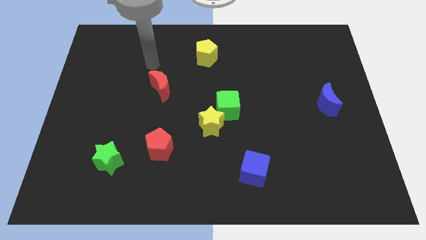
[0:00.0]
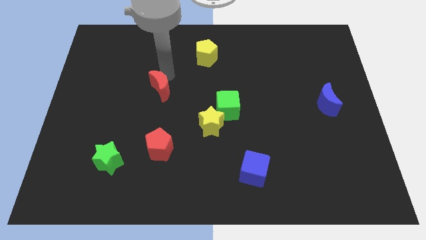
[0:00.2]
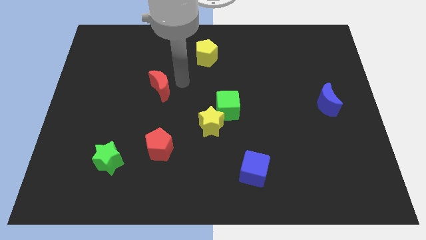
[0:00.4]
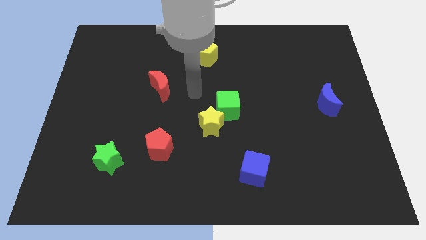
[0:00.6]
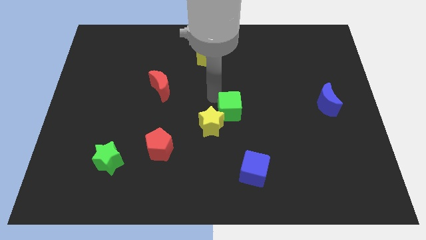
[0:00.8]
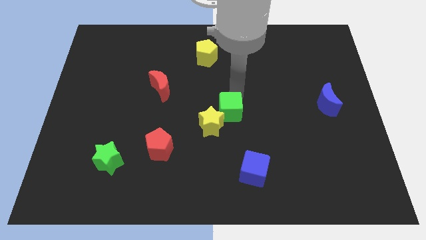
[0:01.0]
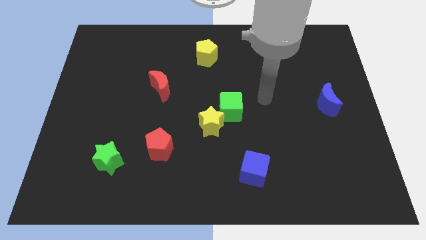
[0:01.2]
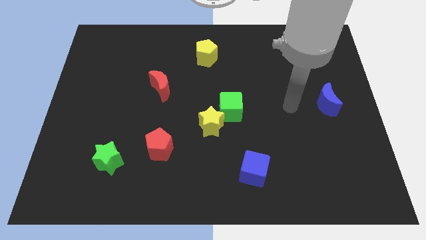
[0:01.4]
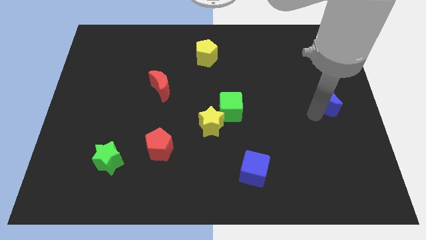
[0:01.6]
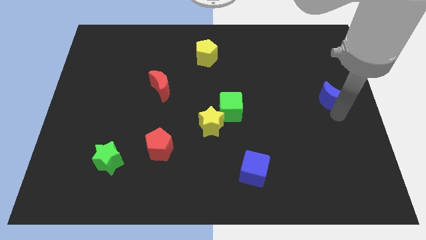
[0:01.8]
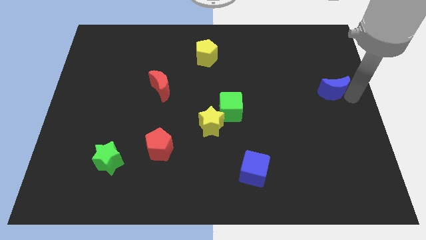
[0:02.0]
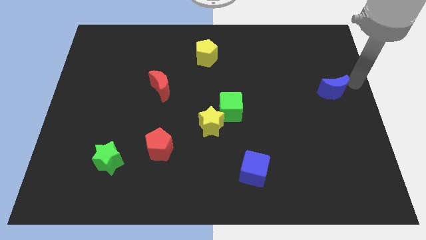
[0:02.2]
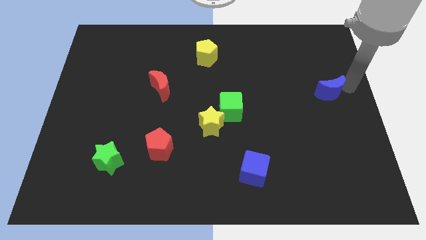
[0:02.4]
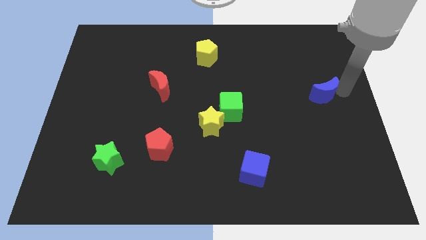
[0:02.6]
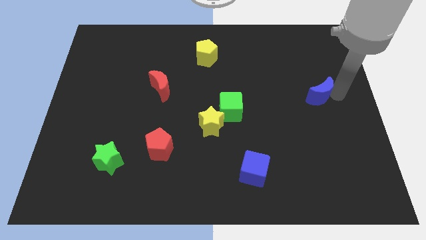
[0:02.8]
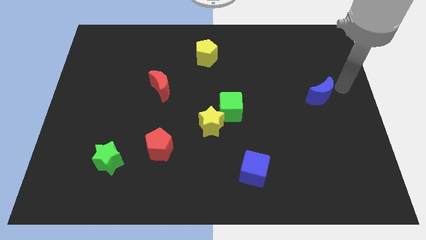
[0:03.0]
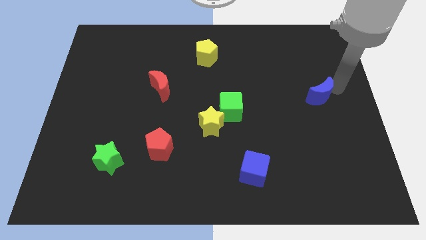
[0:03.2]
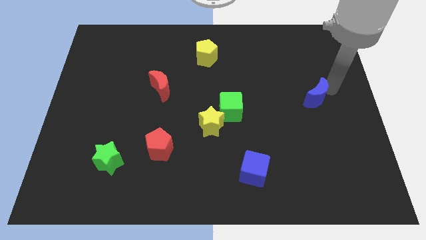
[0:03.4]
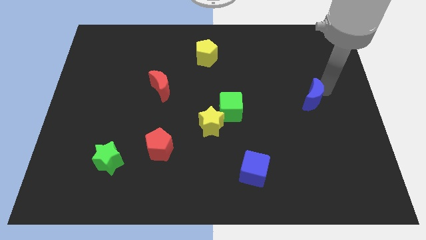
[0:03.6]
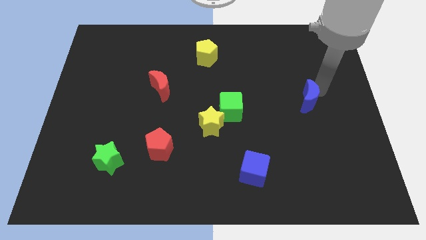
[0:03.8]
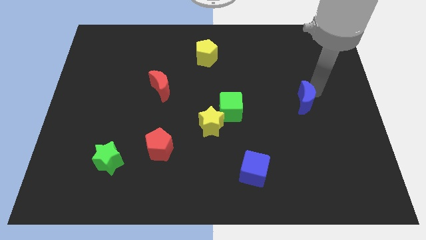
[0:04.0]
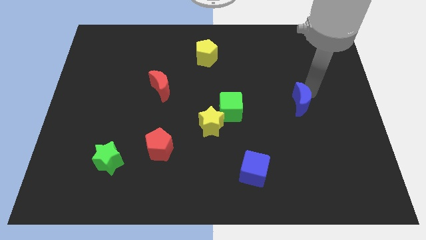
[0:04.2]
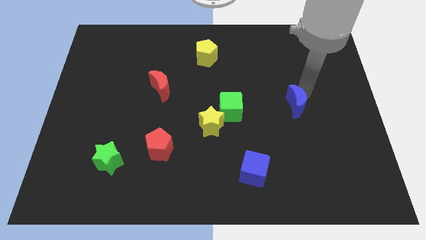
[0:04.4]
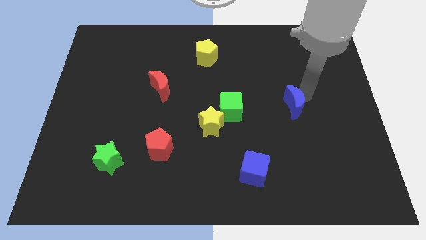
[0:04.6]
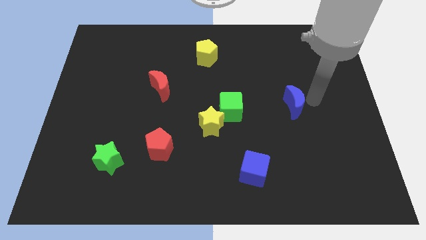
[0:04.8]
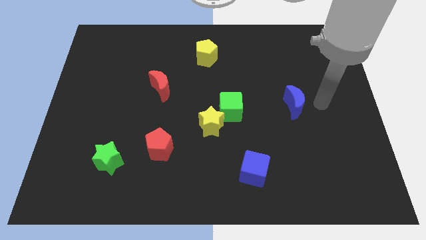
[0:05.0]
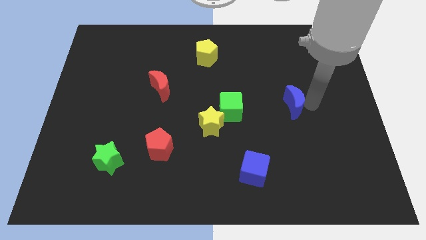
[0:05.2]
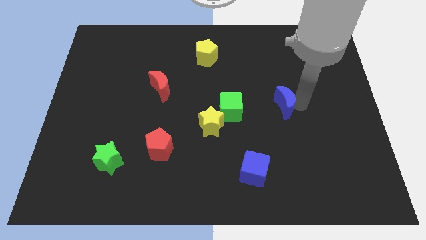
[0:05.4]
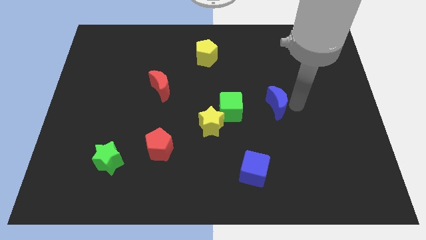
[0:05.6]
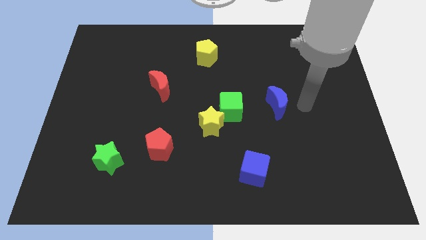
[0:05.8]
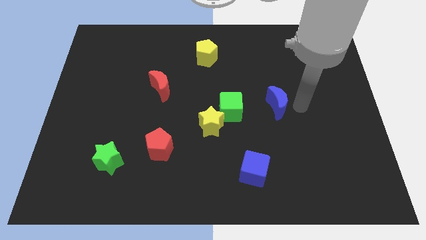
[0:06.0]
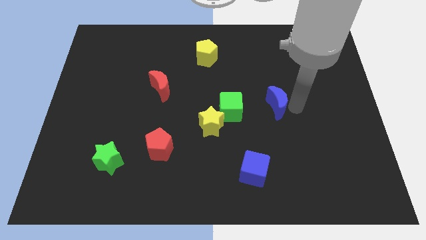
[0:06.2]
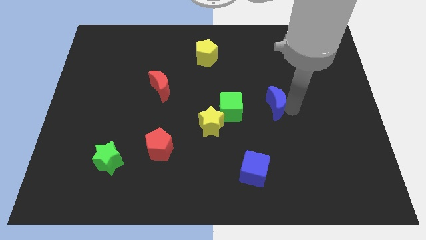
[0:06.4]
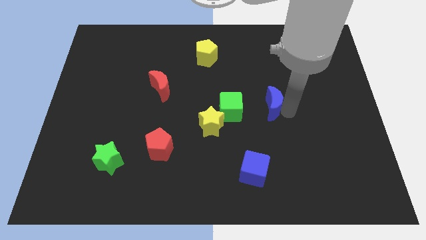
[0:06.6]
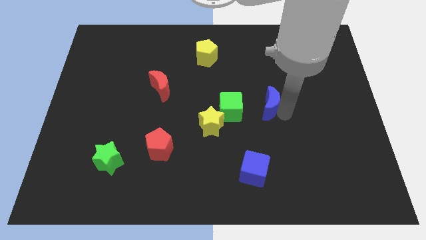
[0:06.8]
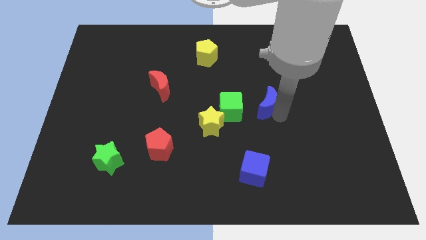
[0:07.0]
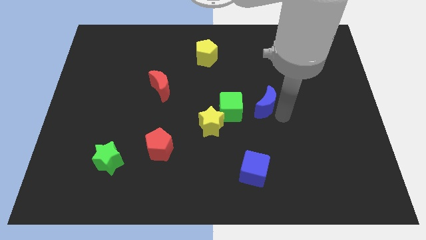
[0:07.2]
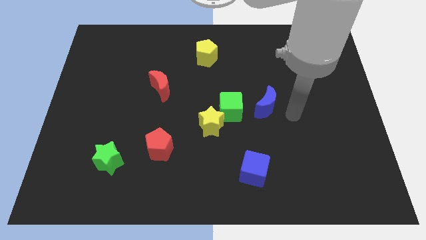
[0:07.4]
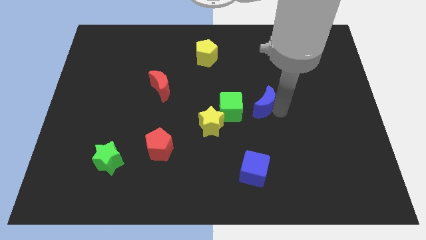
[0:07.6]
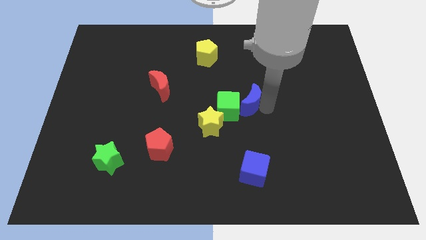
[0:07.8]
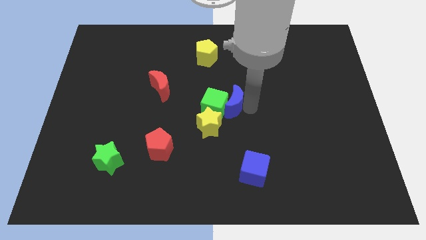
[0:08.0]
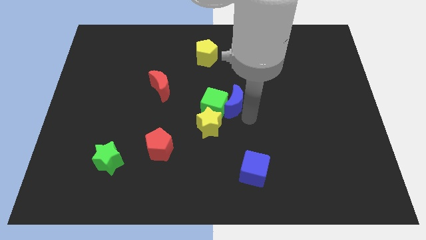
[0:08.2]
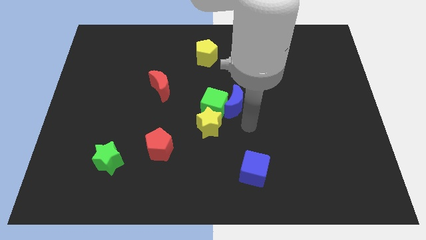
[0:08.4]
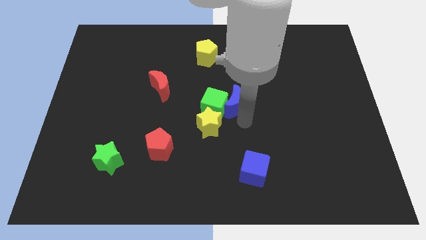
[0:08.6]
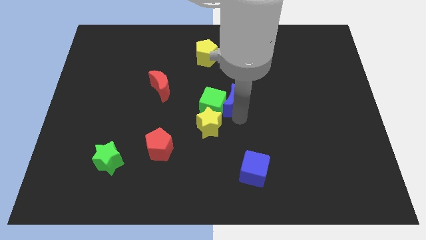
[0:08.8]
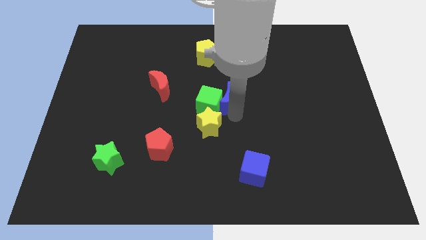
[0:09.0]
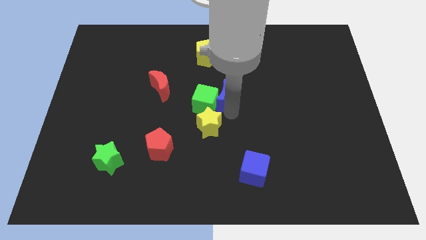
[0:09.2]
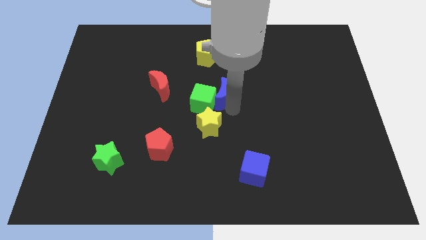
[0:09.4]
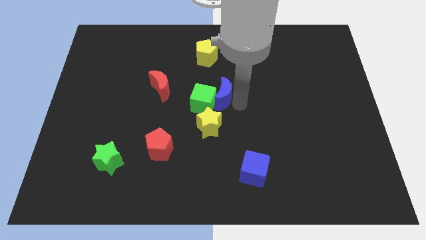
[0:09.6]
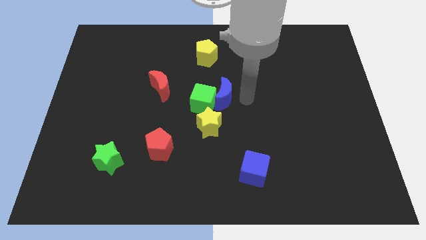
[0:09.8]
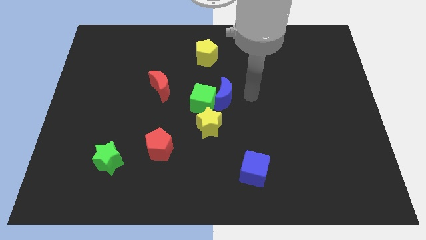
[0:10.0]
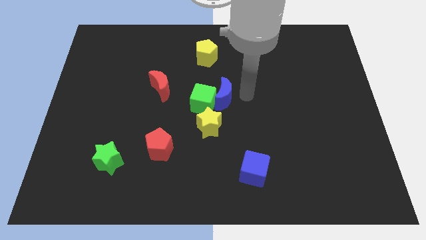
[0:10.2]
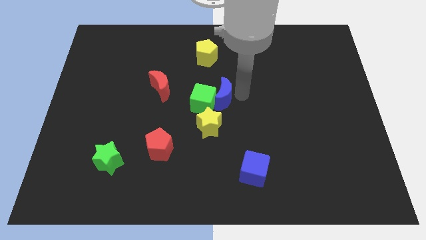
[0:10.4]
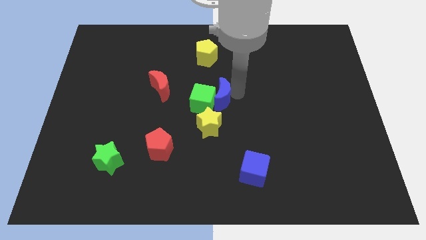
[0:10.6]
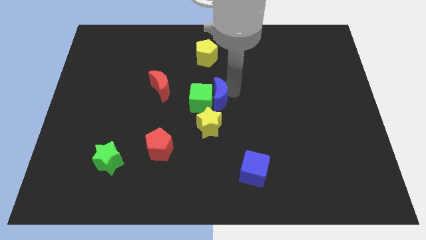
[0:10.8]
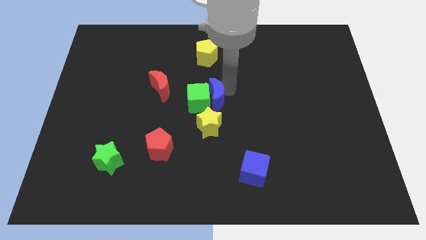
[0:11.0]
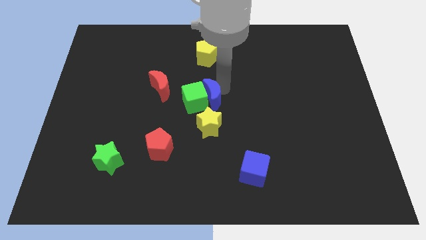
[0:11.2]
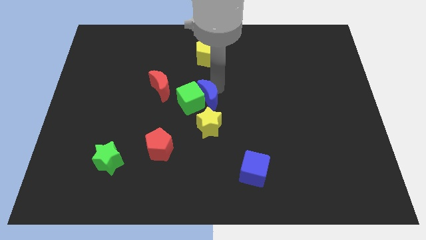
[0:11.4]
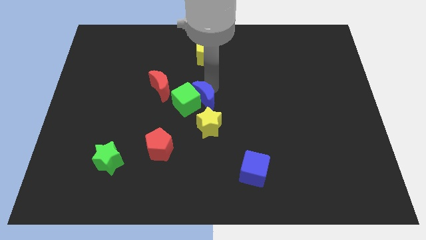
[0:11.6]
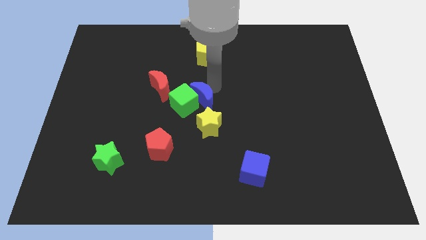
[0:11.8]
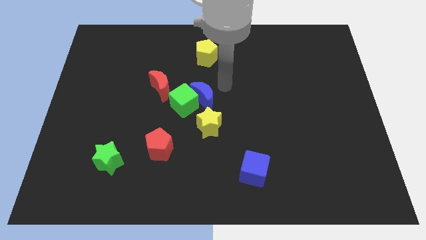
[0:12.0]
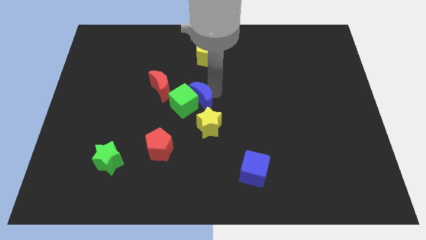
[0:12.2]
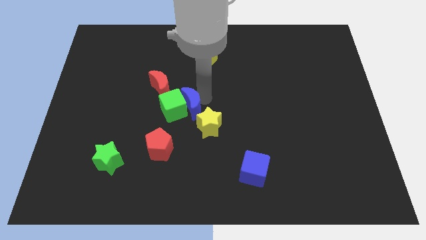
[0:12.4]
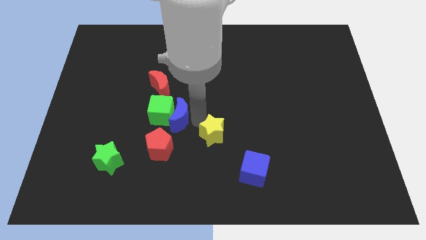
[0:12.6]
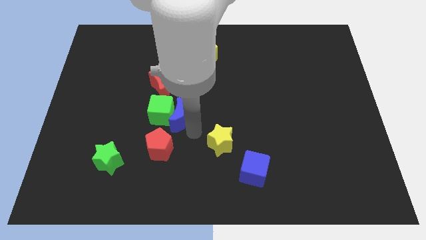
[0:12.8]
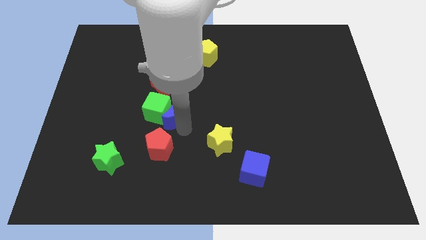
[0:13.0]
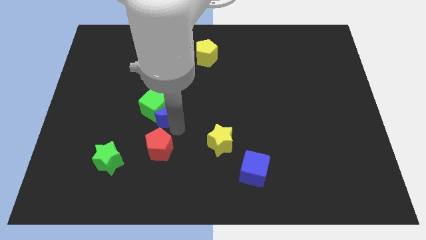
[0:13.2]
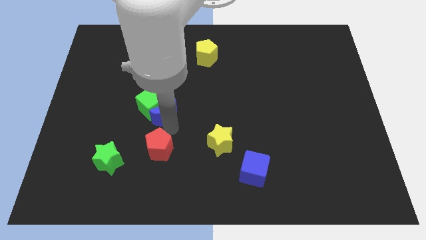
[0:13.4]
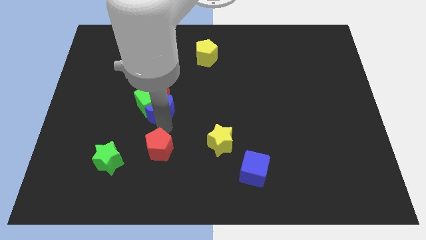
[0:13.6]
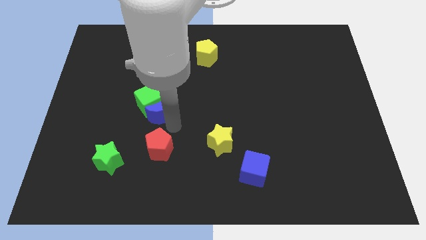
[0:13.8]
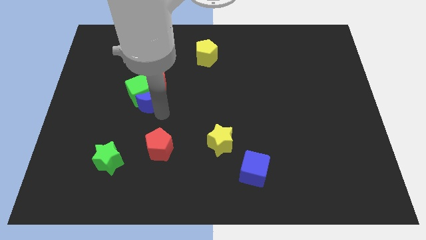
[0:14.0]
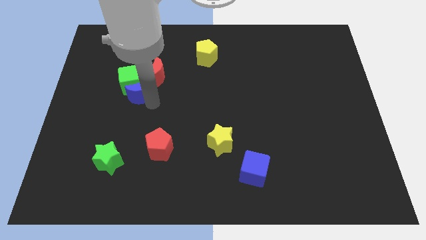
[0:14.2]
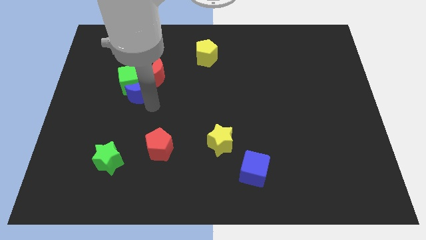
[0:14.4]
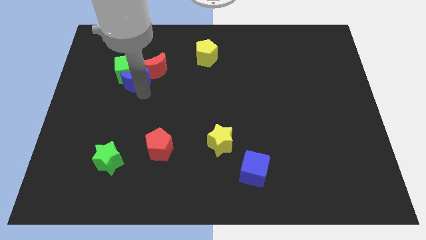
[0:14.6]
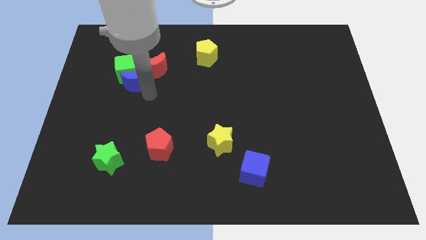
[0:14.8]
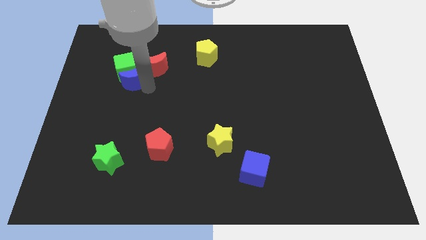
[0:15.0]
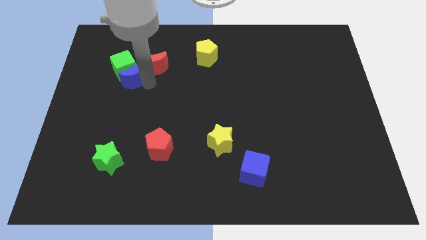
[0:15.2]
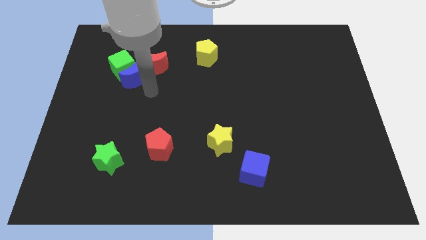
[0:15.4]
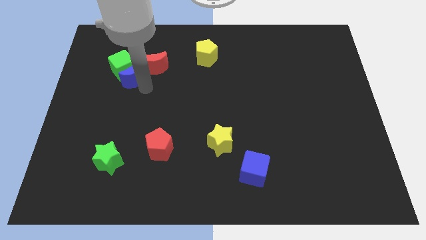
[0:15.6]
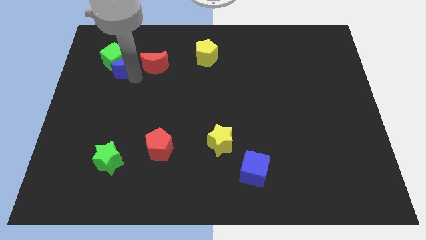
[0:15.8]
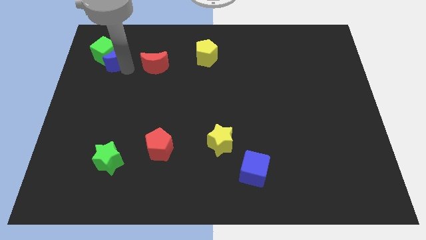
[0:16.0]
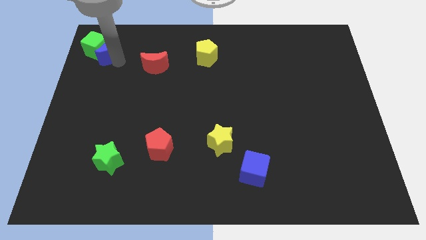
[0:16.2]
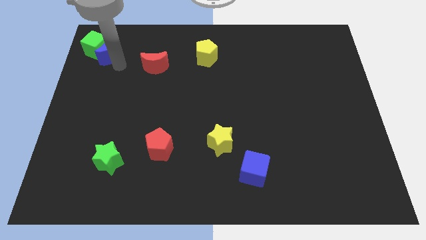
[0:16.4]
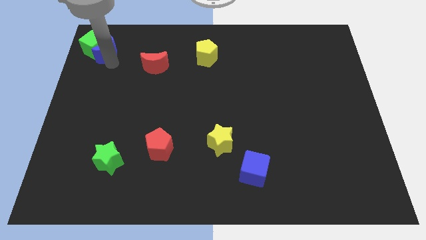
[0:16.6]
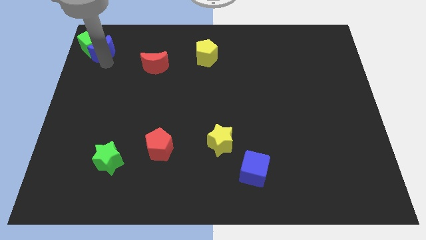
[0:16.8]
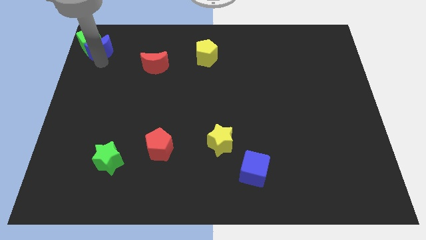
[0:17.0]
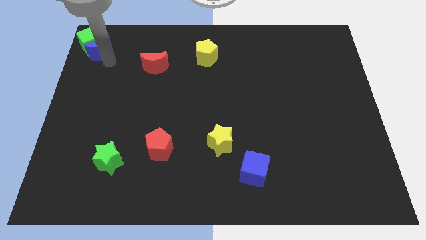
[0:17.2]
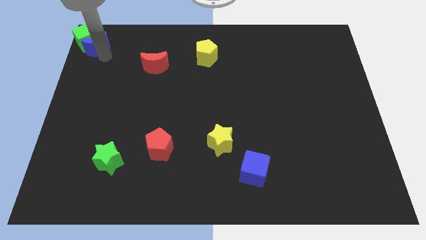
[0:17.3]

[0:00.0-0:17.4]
push the blue moon to the top left
